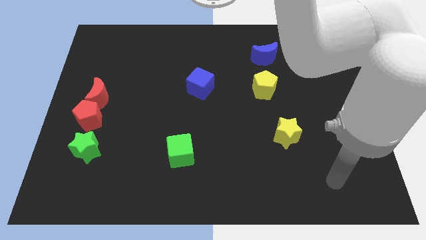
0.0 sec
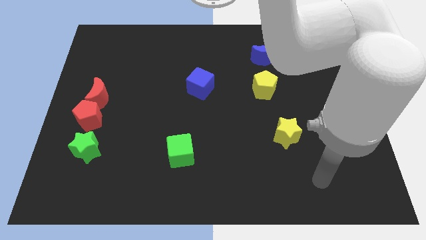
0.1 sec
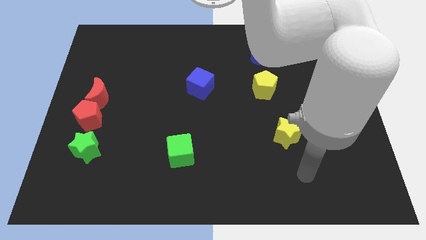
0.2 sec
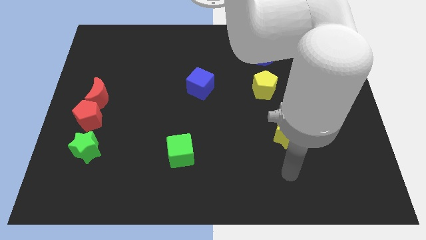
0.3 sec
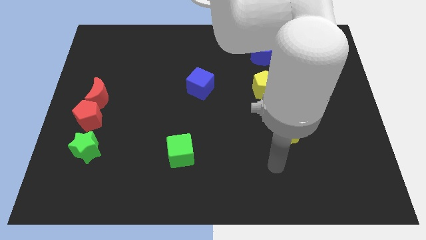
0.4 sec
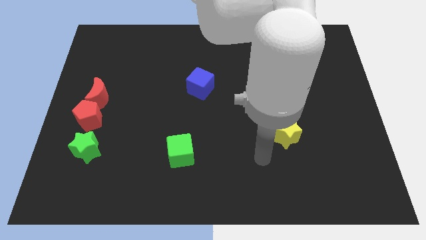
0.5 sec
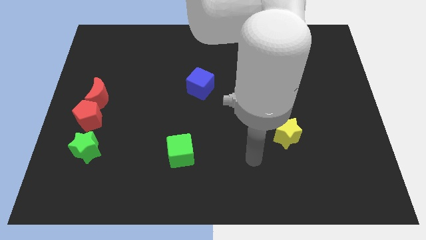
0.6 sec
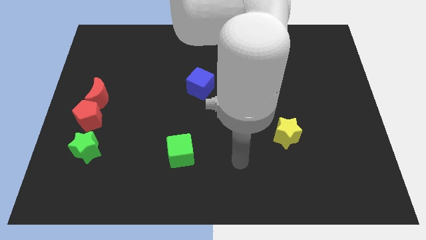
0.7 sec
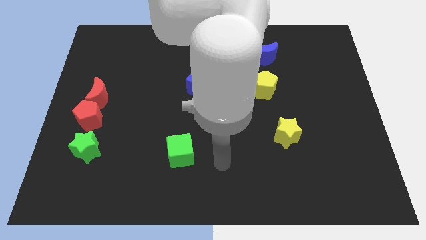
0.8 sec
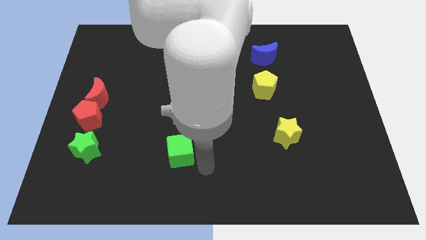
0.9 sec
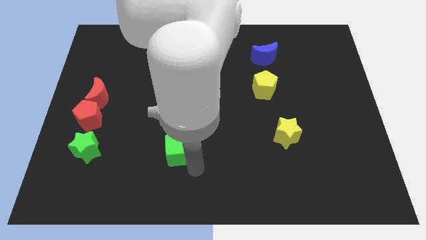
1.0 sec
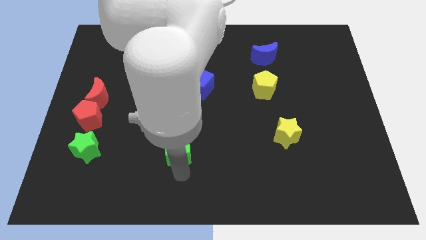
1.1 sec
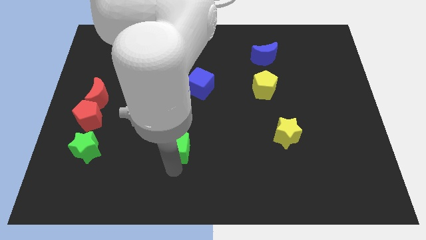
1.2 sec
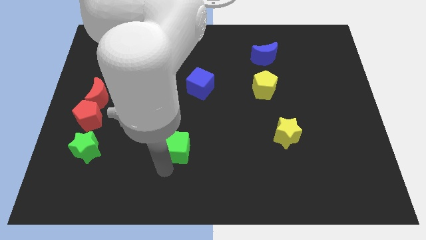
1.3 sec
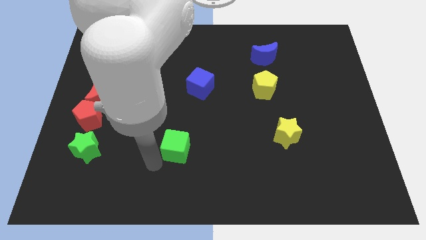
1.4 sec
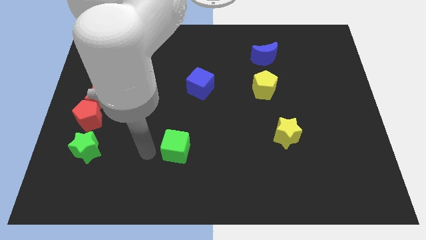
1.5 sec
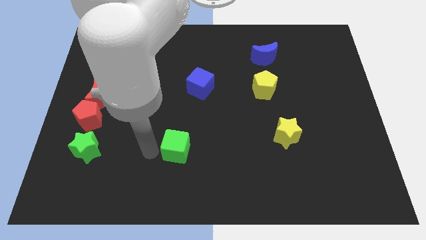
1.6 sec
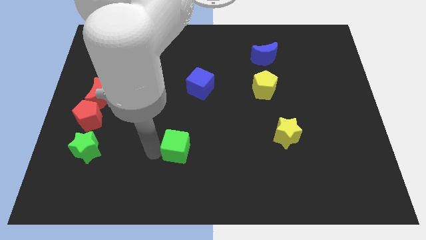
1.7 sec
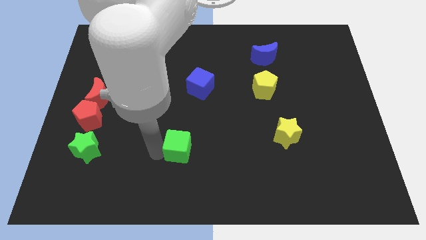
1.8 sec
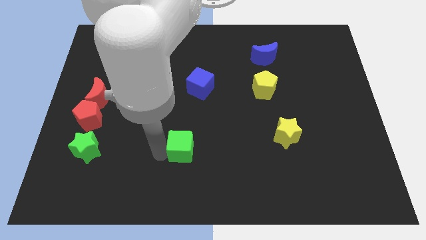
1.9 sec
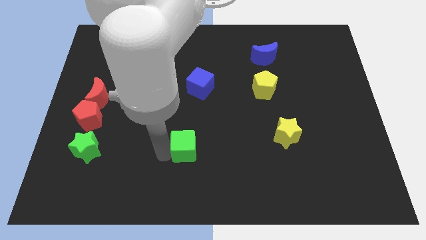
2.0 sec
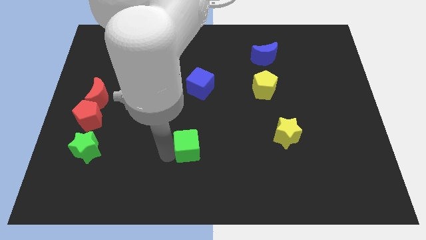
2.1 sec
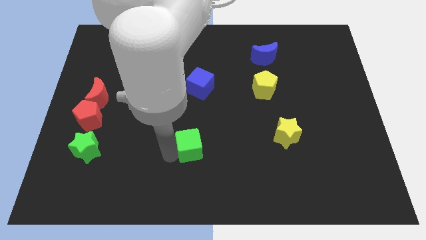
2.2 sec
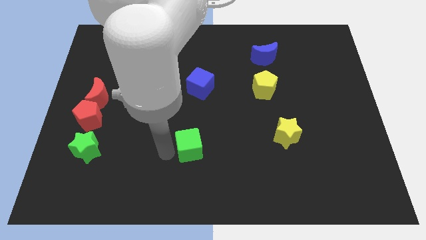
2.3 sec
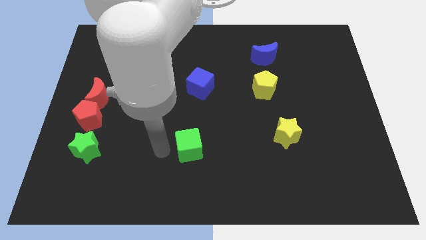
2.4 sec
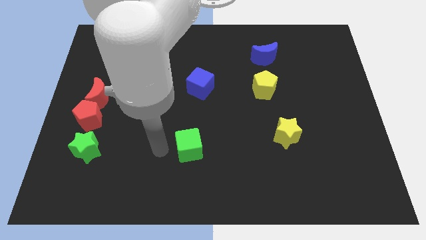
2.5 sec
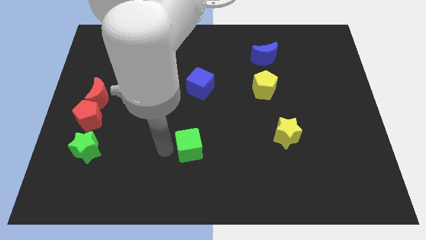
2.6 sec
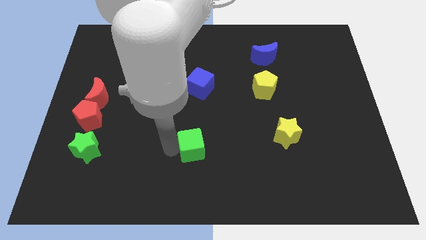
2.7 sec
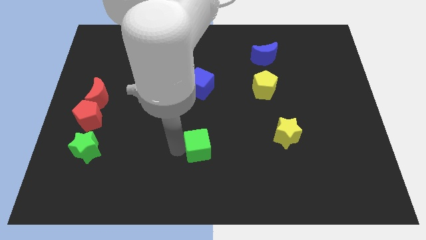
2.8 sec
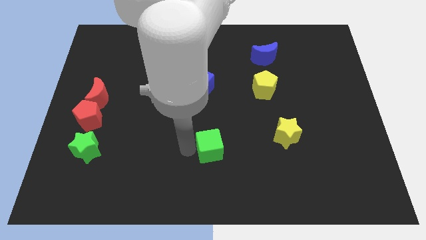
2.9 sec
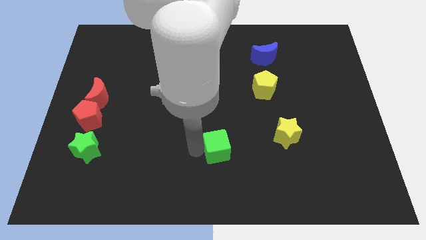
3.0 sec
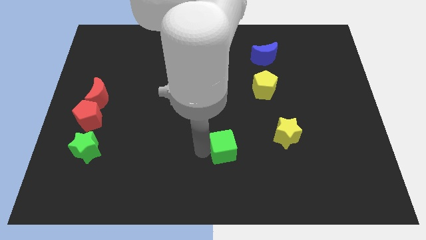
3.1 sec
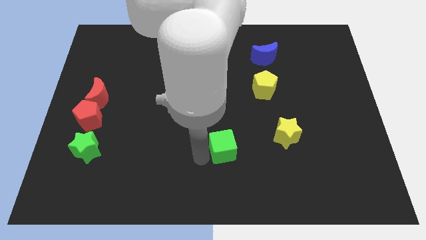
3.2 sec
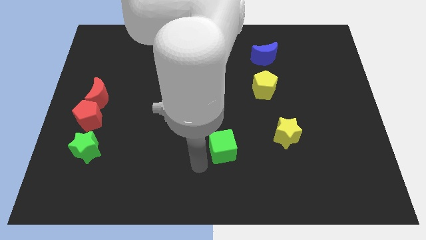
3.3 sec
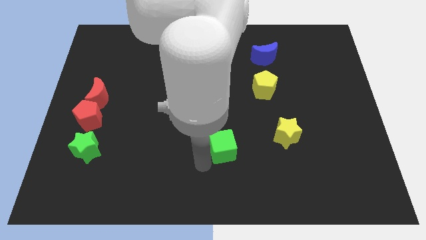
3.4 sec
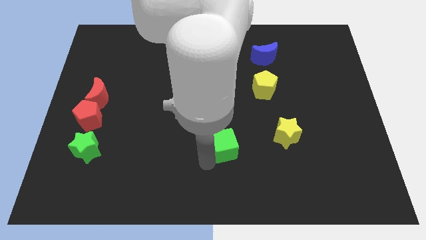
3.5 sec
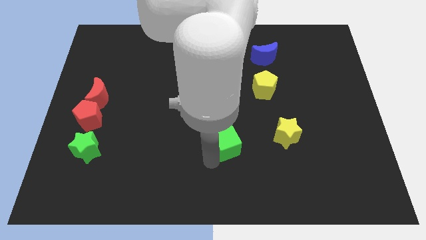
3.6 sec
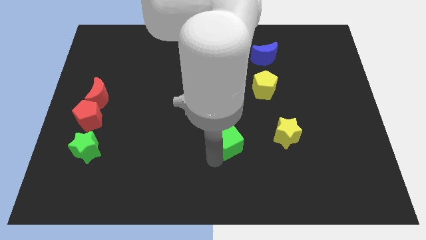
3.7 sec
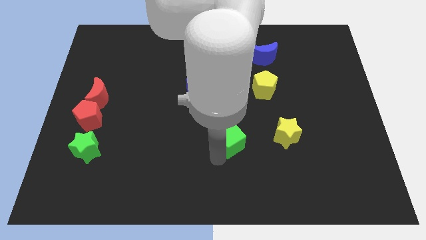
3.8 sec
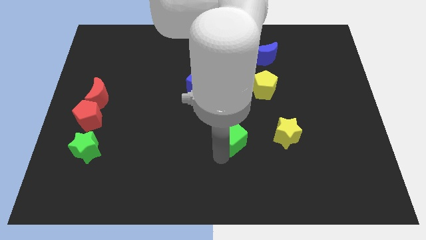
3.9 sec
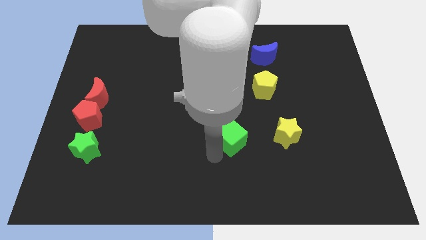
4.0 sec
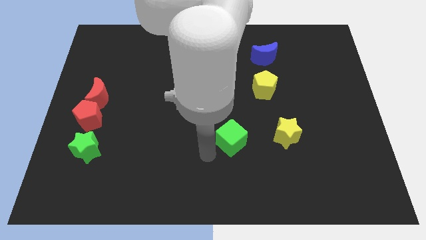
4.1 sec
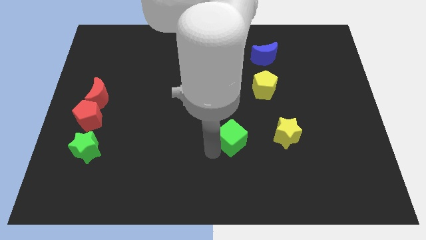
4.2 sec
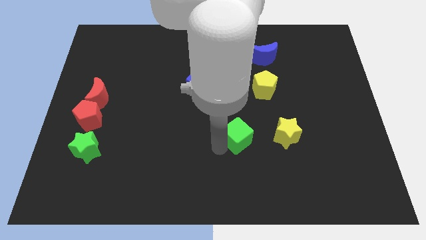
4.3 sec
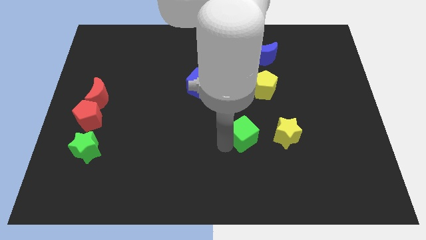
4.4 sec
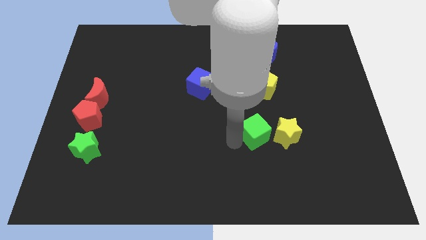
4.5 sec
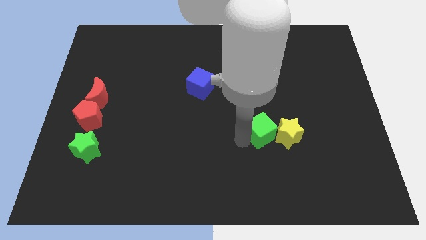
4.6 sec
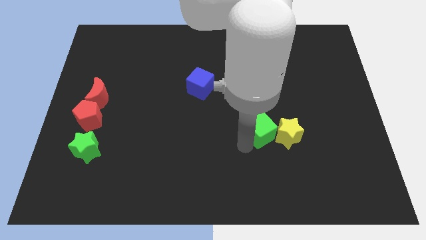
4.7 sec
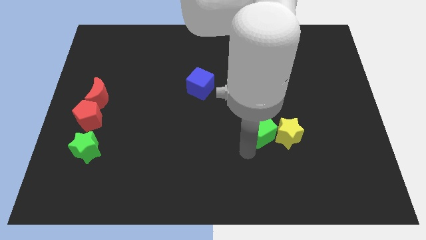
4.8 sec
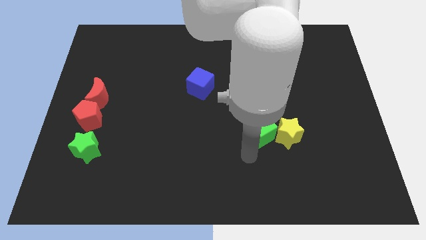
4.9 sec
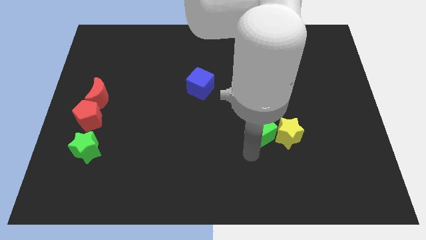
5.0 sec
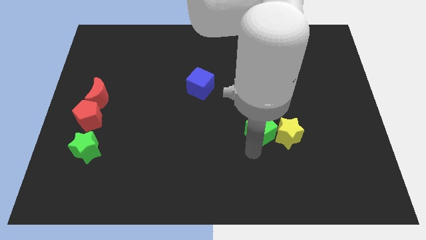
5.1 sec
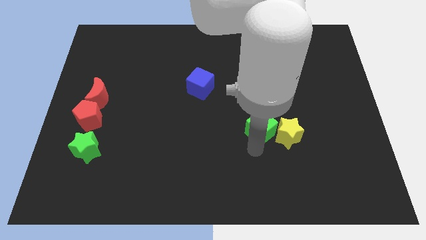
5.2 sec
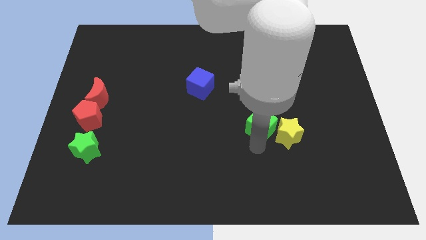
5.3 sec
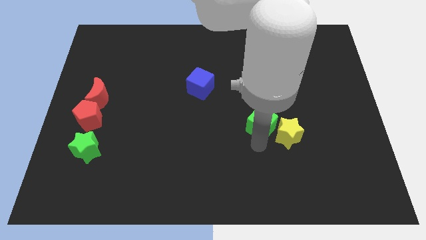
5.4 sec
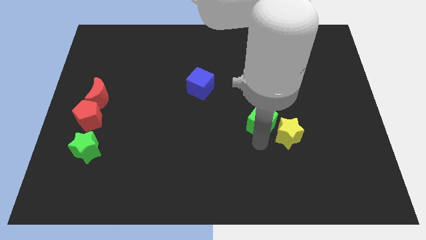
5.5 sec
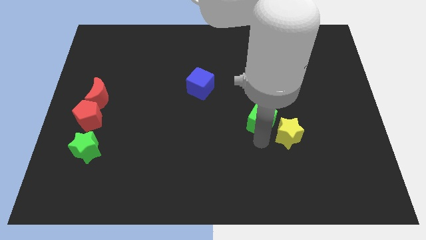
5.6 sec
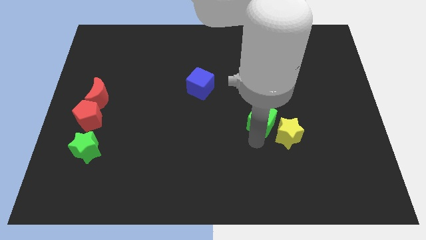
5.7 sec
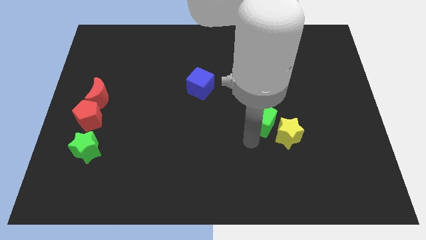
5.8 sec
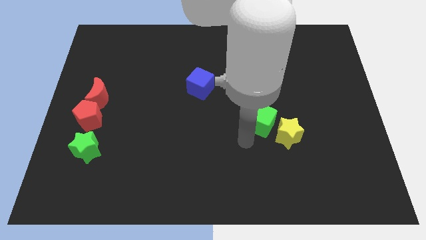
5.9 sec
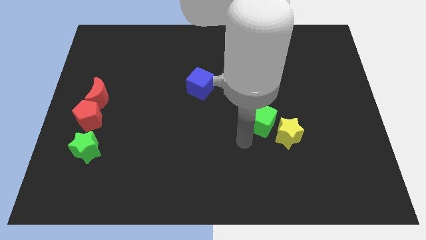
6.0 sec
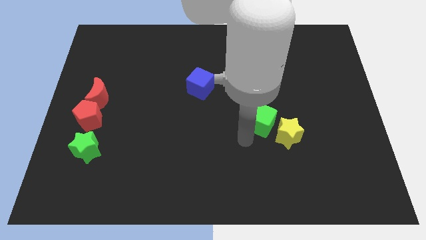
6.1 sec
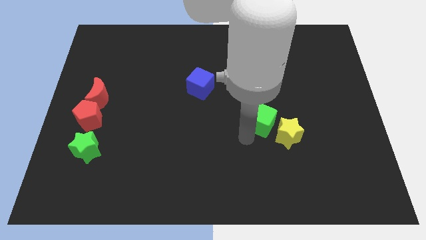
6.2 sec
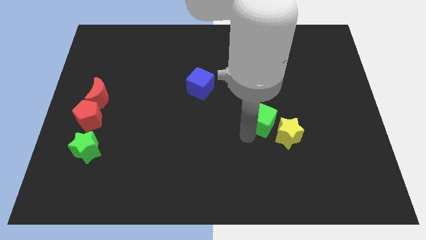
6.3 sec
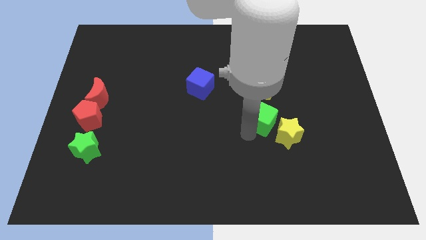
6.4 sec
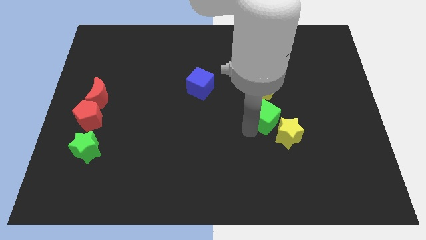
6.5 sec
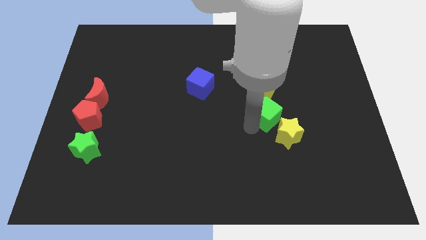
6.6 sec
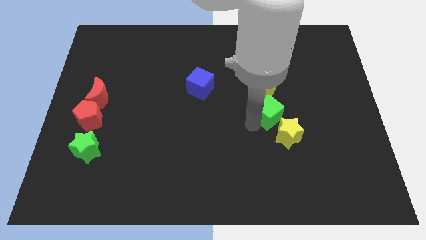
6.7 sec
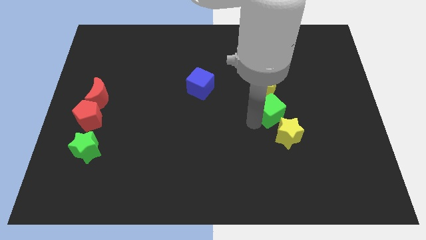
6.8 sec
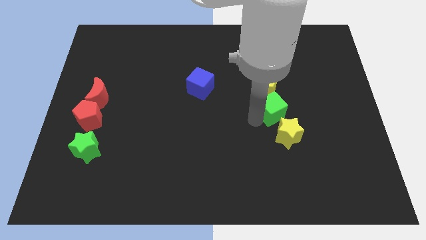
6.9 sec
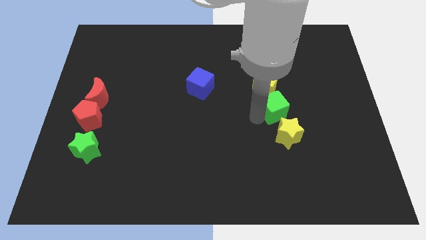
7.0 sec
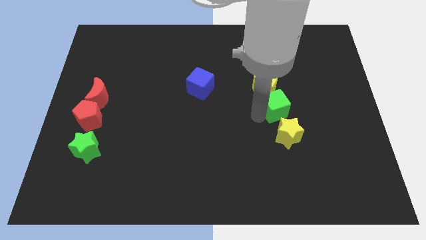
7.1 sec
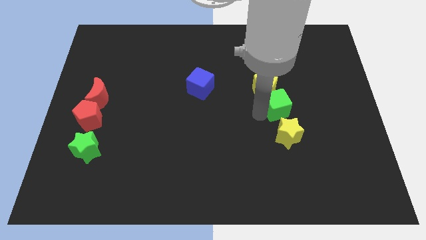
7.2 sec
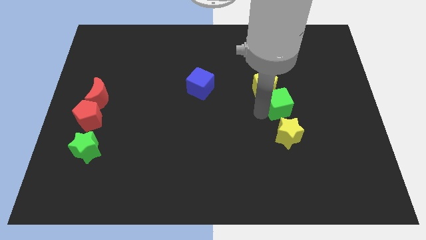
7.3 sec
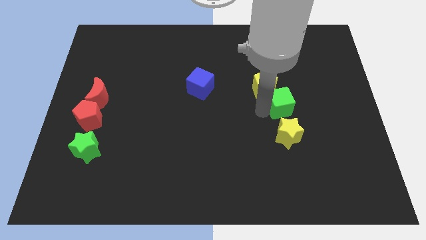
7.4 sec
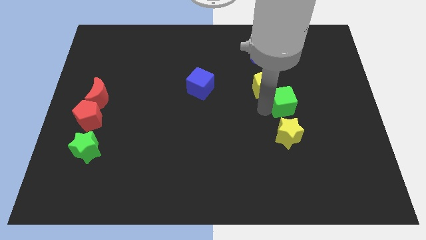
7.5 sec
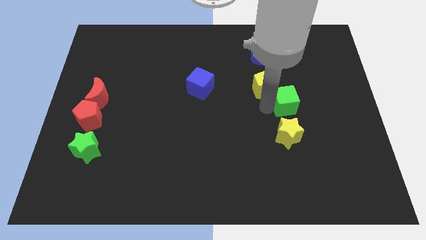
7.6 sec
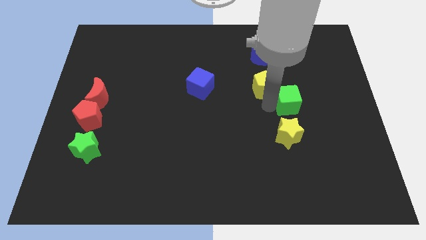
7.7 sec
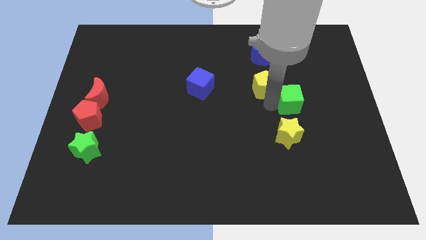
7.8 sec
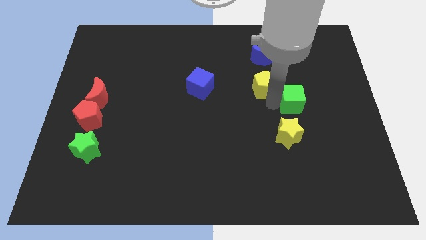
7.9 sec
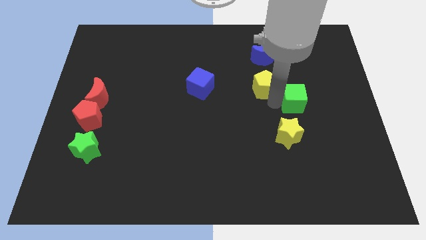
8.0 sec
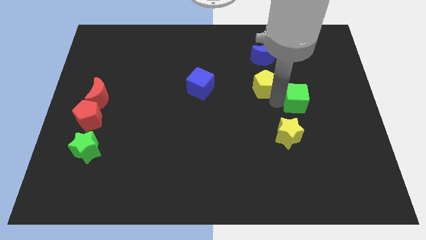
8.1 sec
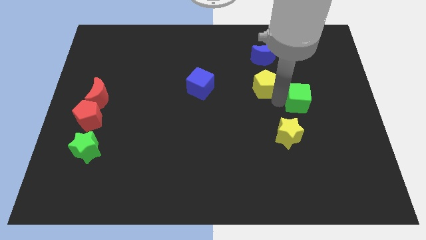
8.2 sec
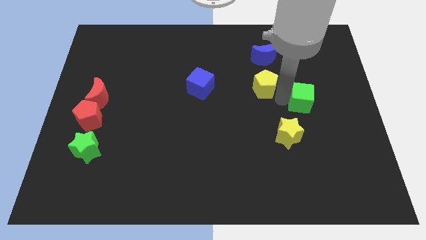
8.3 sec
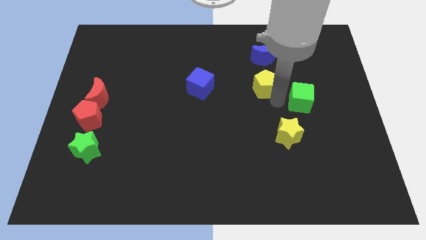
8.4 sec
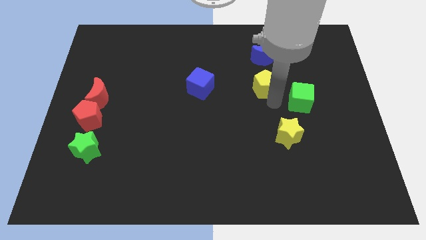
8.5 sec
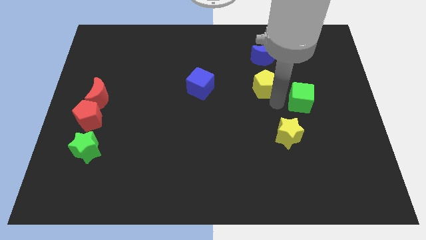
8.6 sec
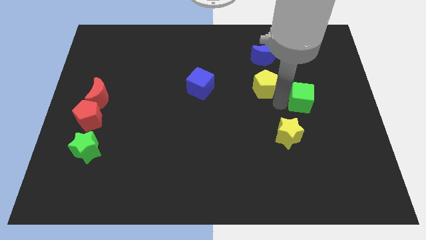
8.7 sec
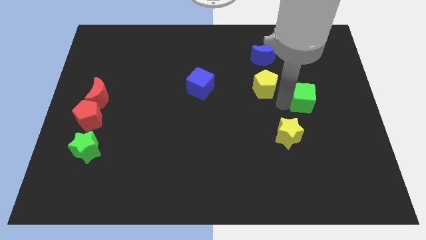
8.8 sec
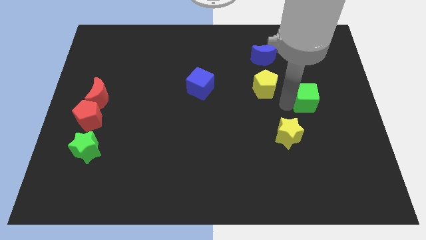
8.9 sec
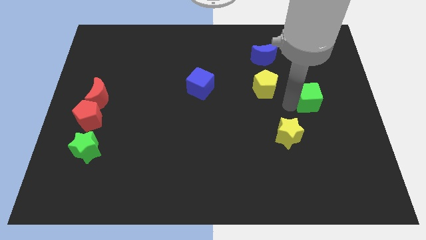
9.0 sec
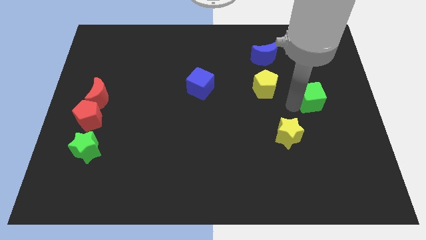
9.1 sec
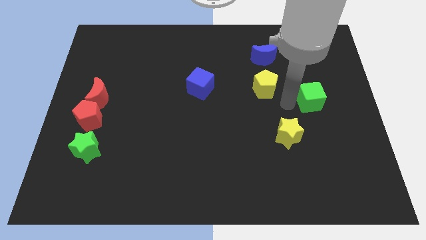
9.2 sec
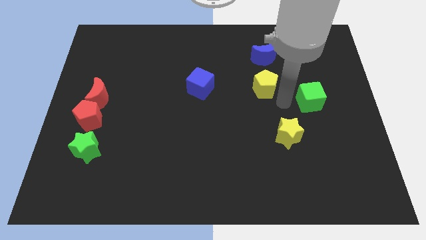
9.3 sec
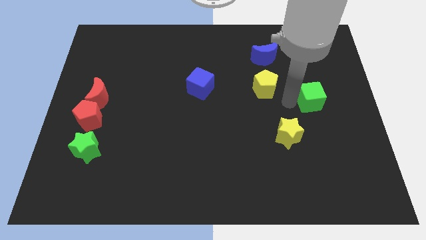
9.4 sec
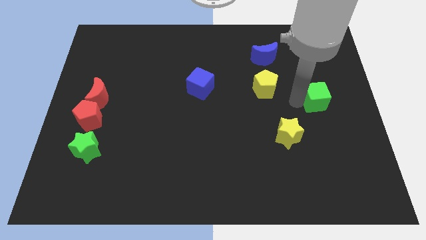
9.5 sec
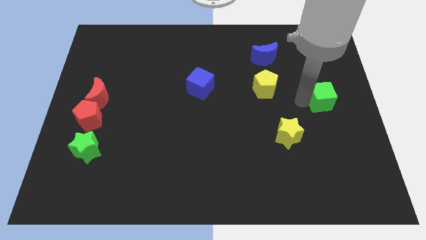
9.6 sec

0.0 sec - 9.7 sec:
slide the green cube to the right side
